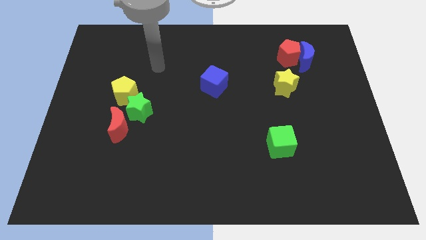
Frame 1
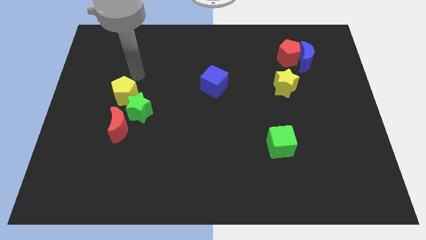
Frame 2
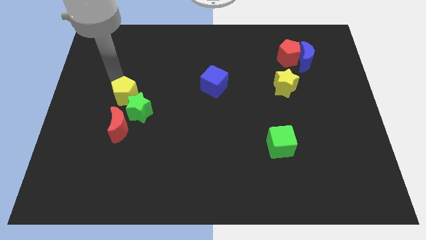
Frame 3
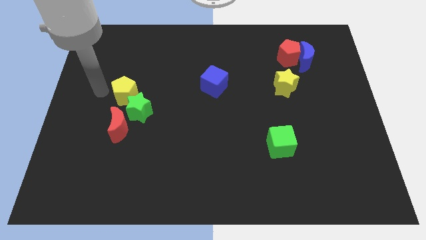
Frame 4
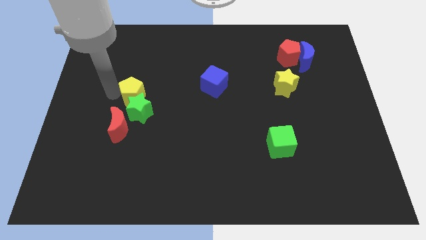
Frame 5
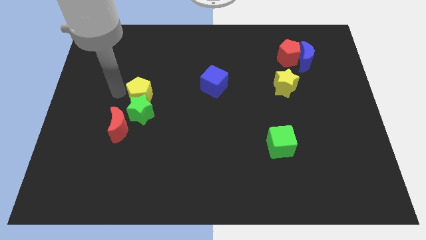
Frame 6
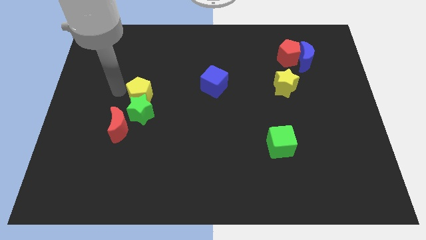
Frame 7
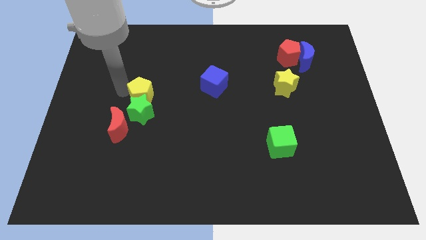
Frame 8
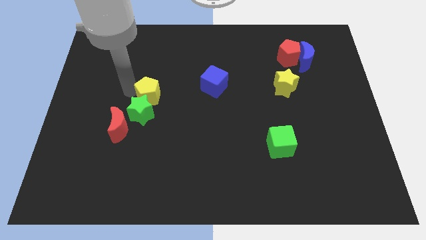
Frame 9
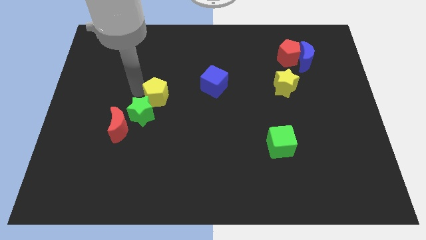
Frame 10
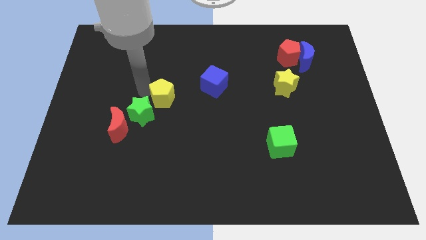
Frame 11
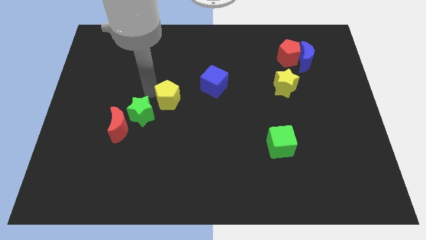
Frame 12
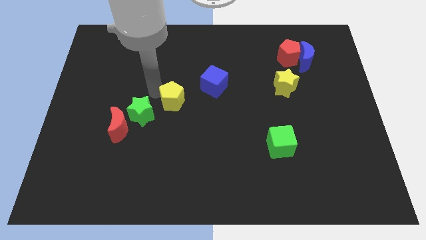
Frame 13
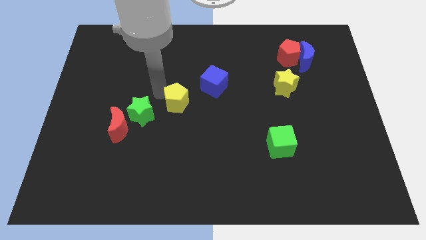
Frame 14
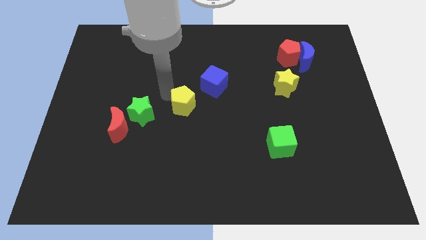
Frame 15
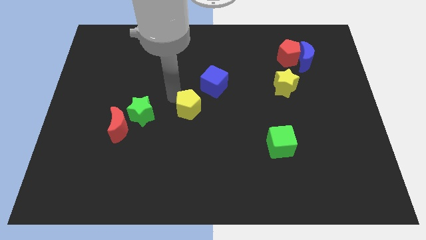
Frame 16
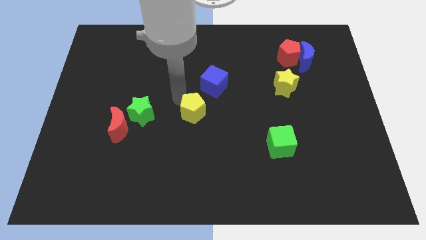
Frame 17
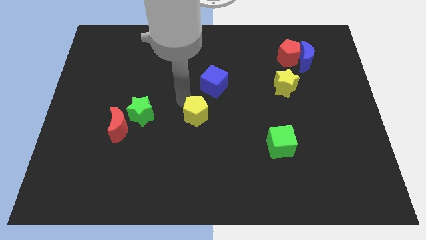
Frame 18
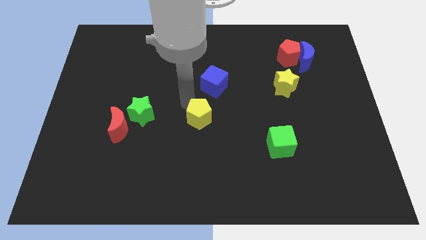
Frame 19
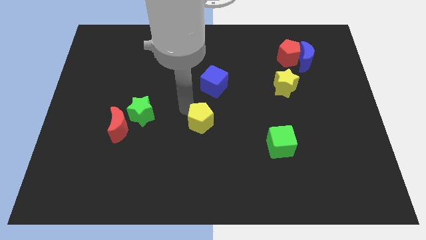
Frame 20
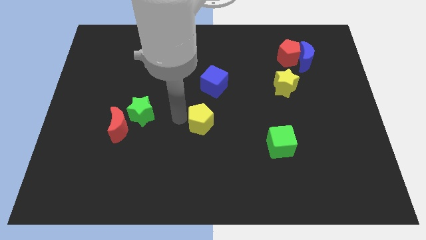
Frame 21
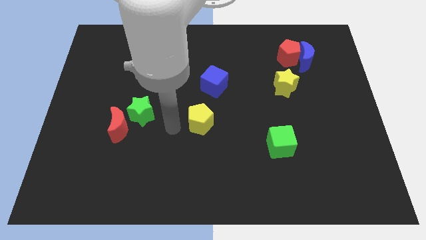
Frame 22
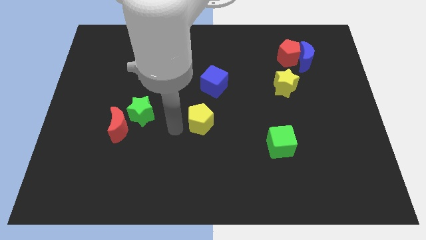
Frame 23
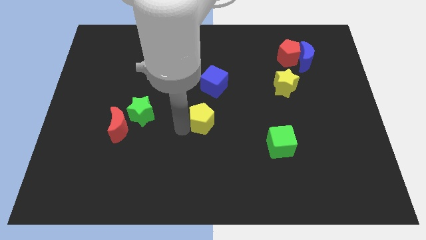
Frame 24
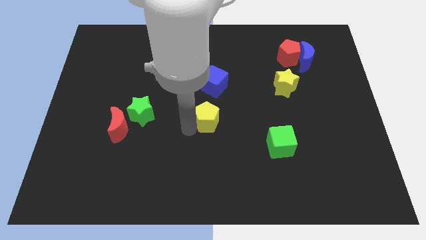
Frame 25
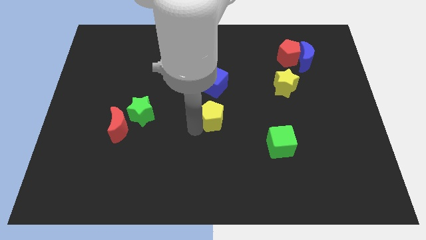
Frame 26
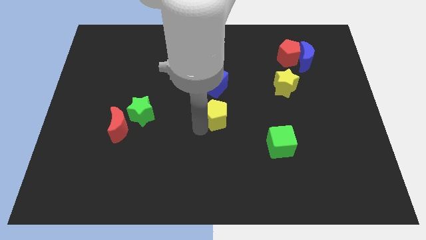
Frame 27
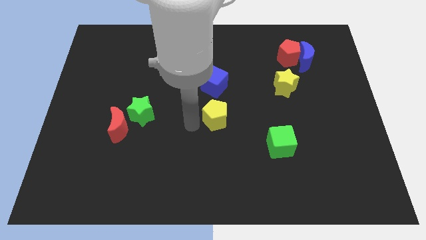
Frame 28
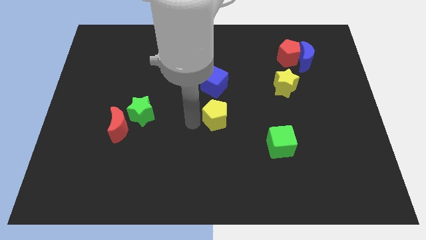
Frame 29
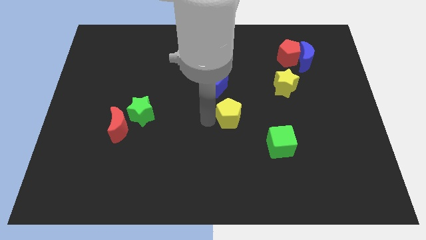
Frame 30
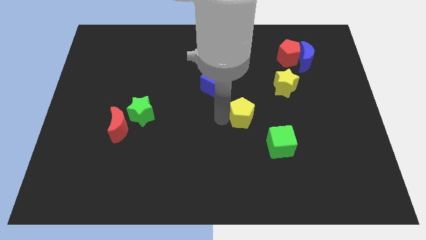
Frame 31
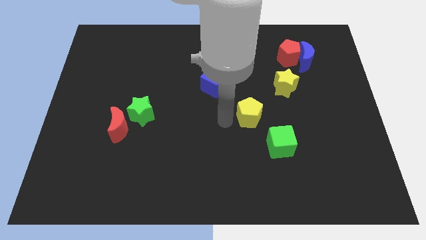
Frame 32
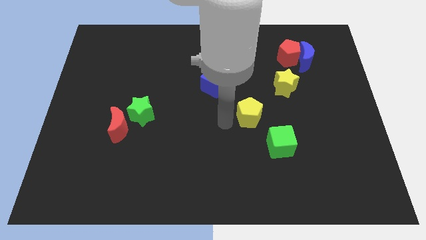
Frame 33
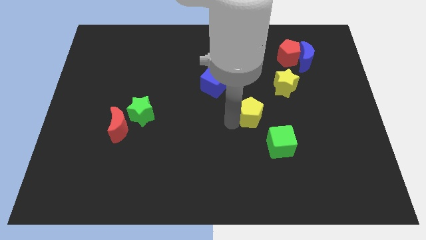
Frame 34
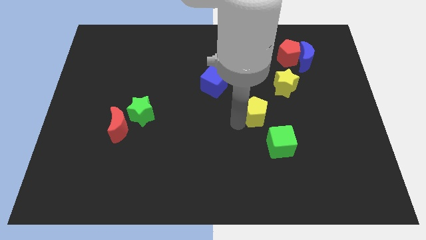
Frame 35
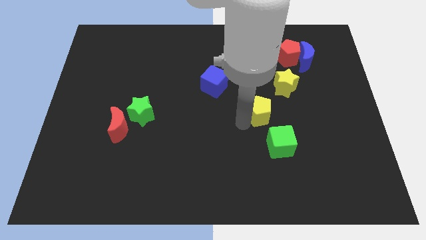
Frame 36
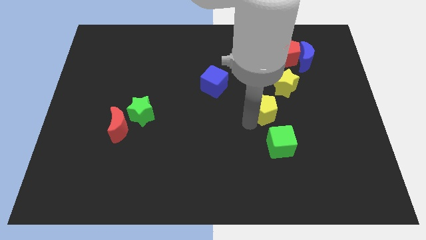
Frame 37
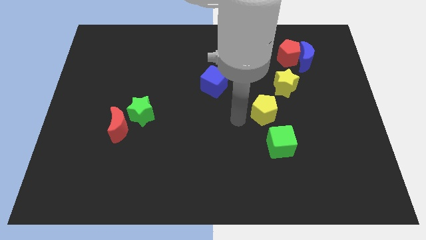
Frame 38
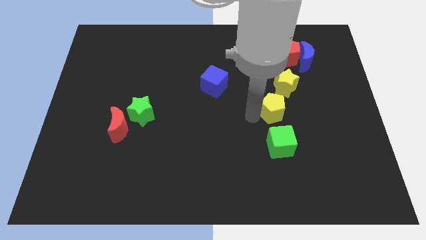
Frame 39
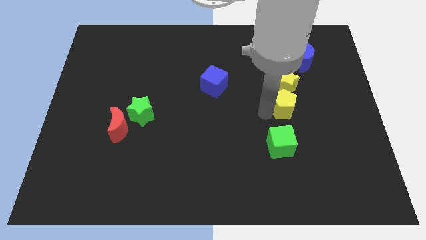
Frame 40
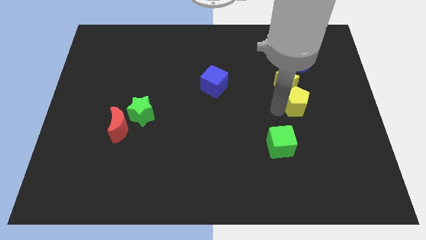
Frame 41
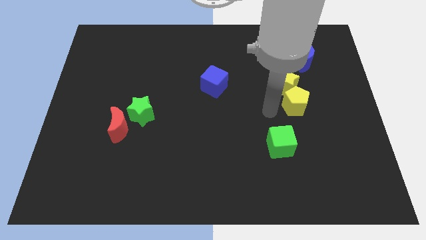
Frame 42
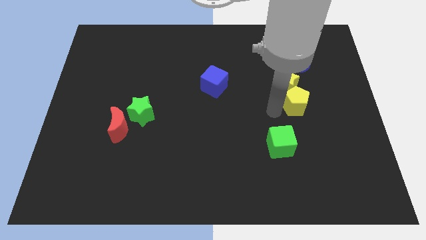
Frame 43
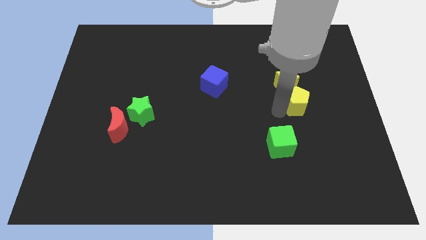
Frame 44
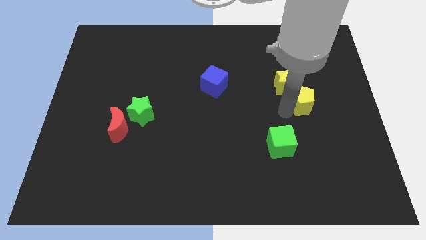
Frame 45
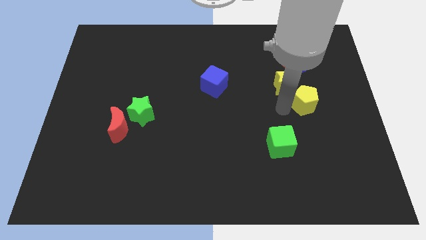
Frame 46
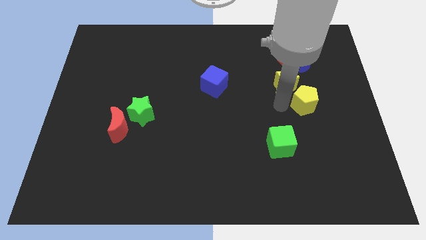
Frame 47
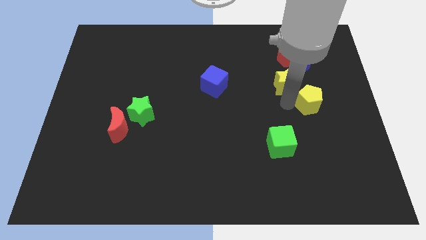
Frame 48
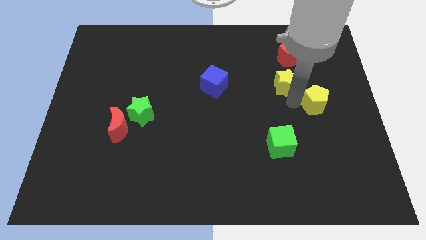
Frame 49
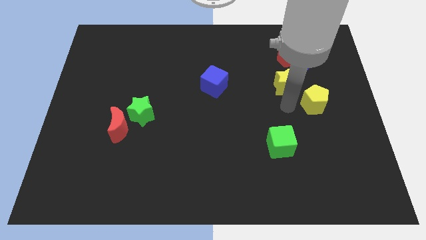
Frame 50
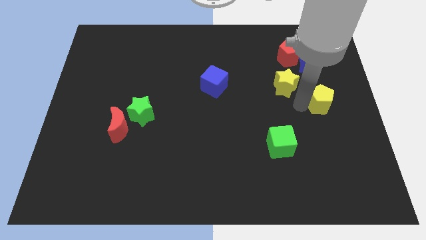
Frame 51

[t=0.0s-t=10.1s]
slide the yellow pentagon to the right side of the board

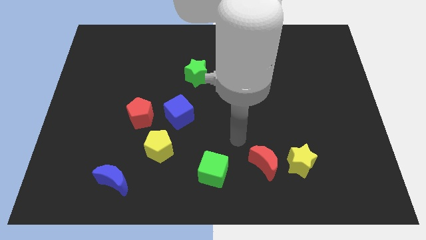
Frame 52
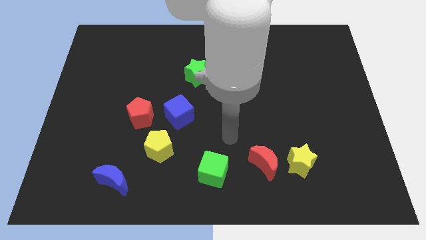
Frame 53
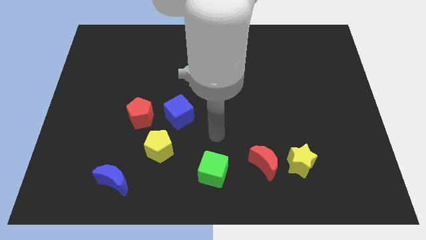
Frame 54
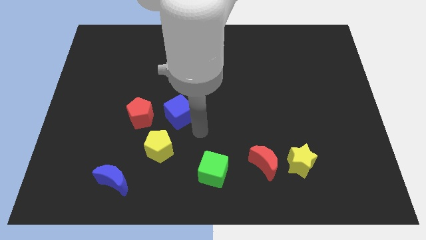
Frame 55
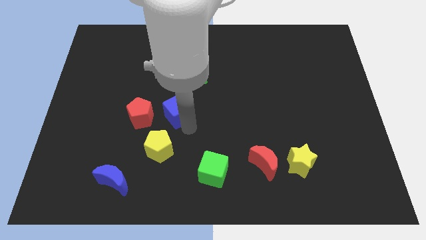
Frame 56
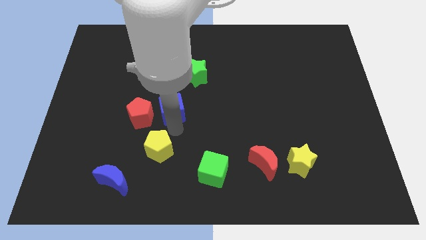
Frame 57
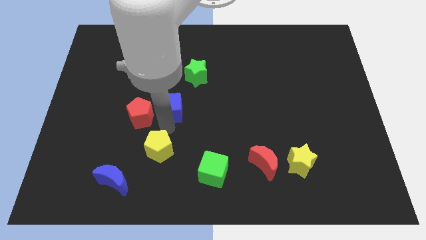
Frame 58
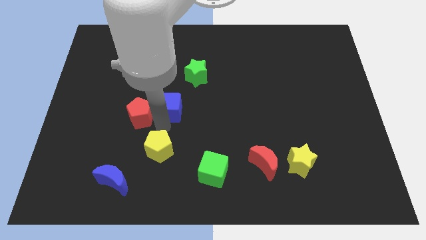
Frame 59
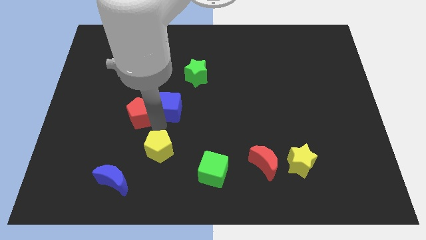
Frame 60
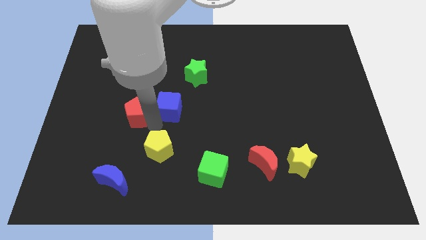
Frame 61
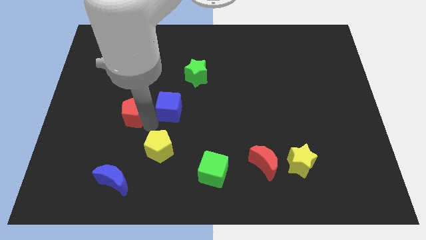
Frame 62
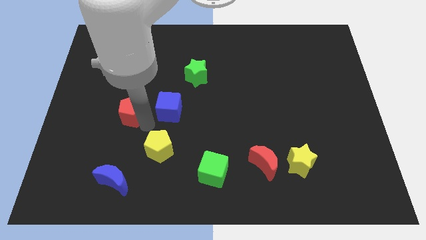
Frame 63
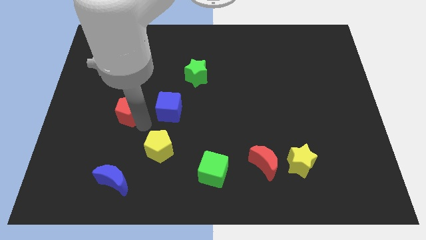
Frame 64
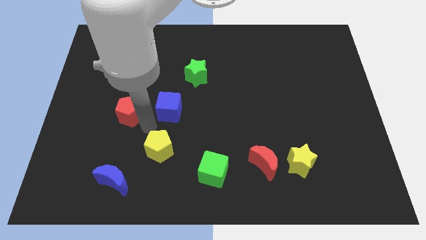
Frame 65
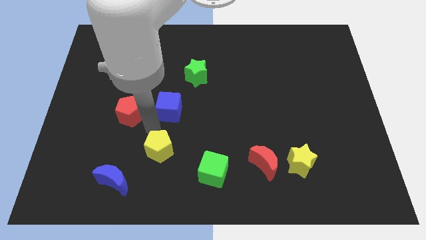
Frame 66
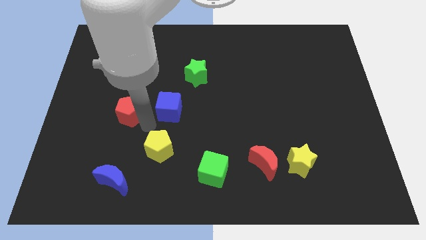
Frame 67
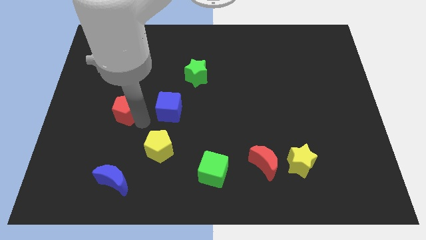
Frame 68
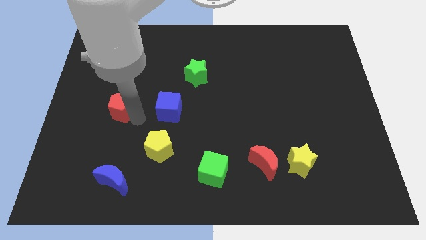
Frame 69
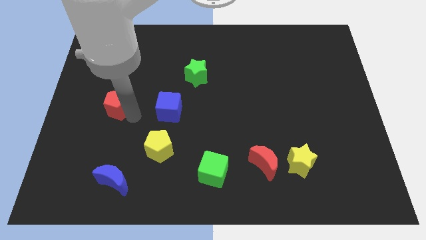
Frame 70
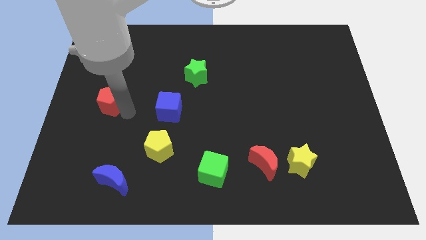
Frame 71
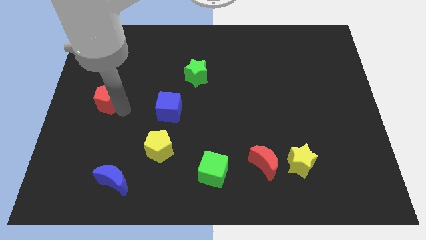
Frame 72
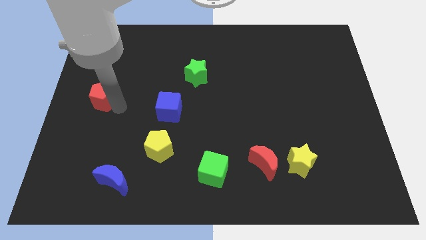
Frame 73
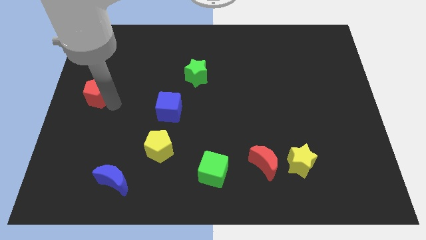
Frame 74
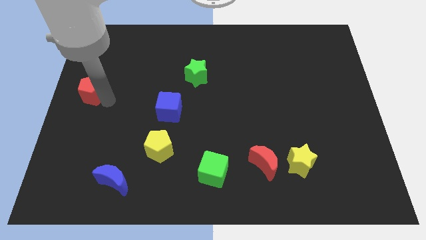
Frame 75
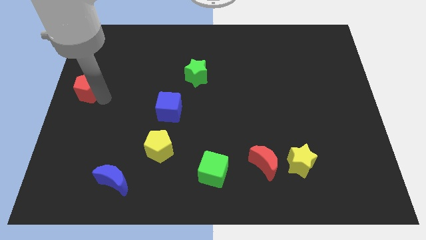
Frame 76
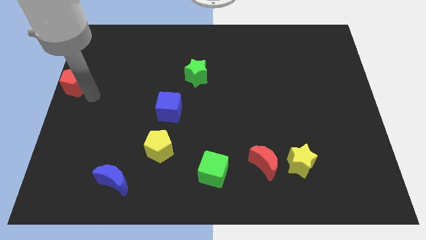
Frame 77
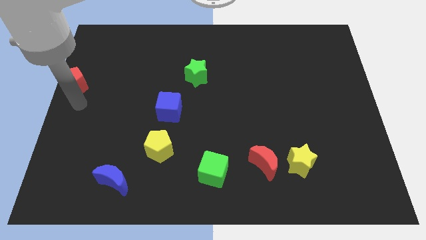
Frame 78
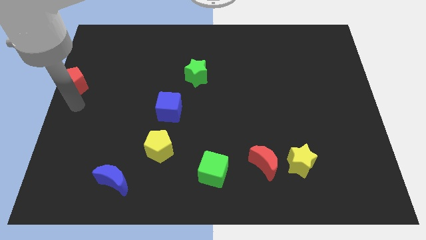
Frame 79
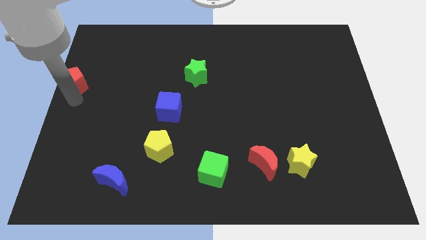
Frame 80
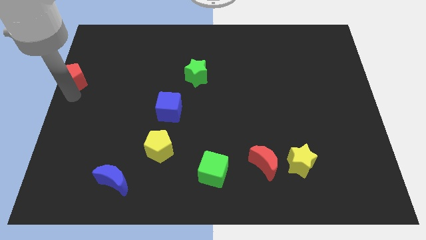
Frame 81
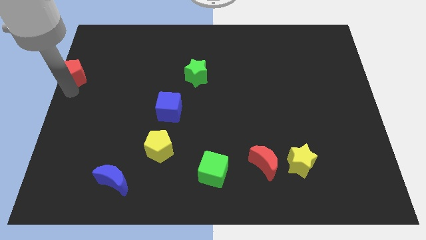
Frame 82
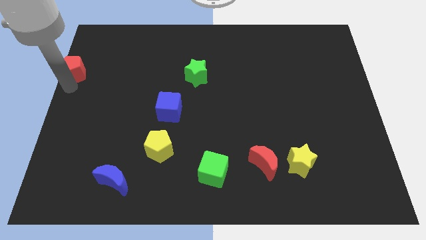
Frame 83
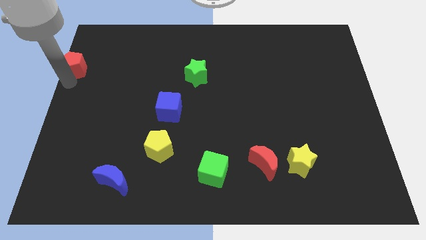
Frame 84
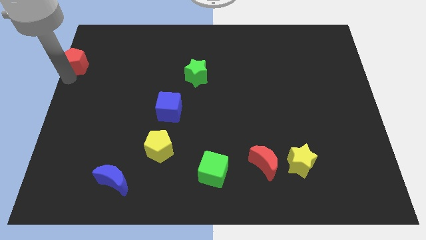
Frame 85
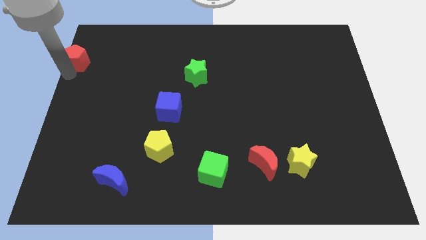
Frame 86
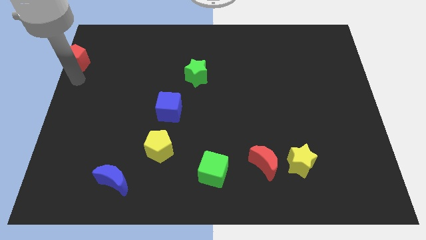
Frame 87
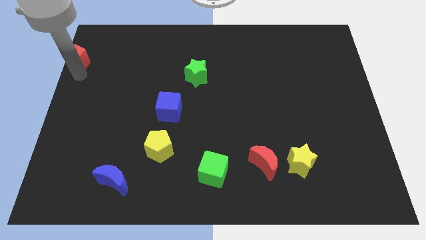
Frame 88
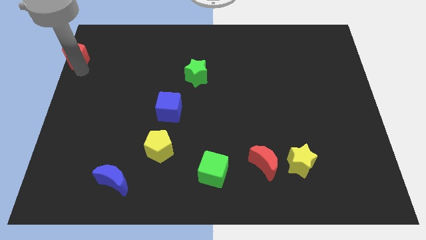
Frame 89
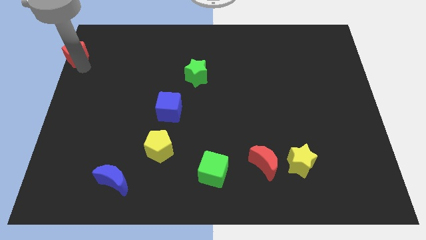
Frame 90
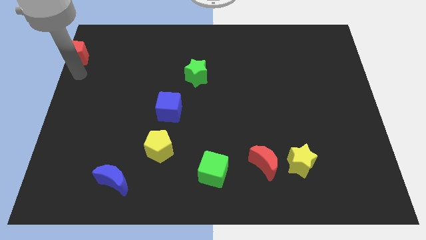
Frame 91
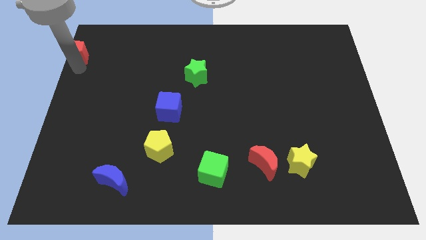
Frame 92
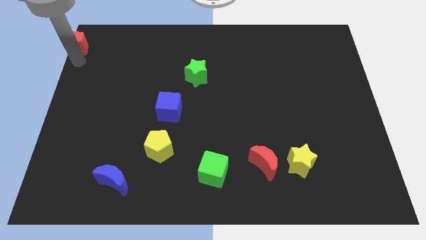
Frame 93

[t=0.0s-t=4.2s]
push the red pentagon to the top left corner
